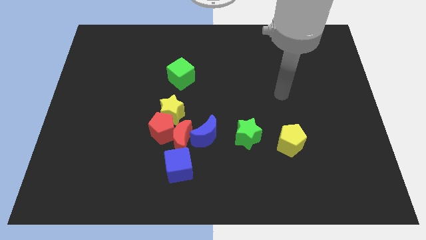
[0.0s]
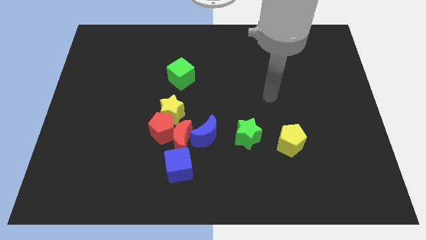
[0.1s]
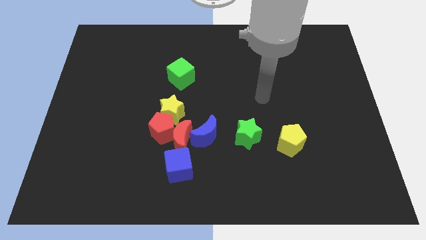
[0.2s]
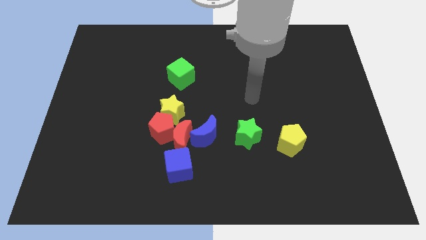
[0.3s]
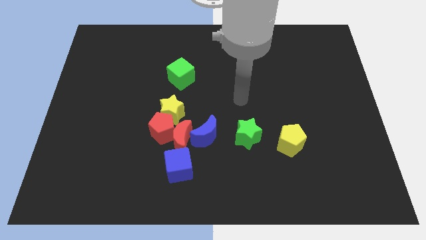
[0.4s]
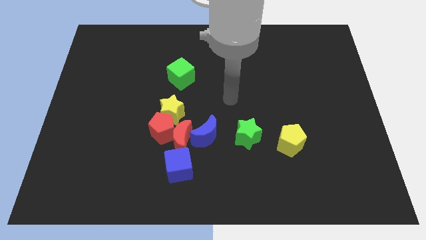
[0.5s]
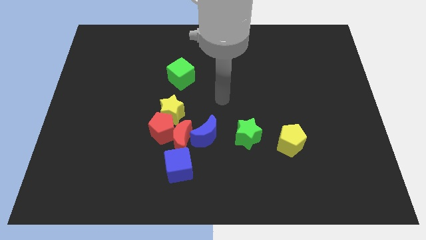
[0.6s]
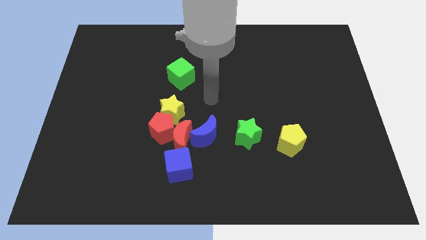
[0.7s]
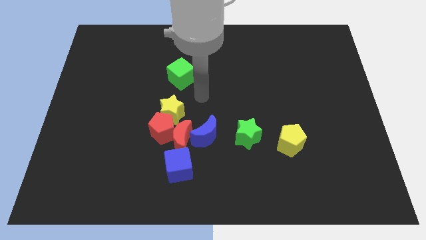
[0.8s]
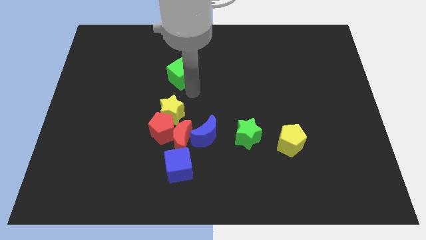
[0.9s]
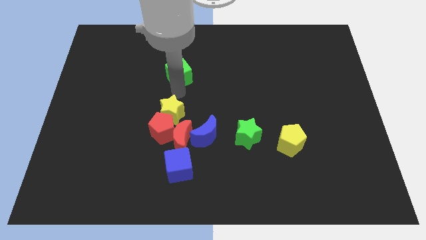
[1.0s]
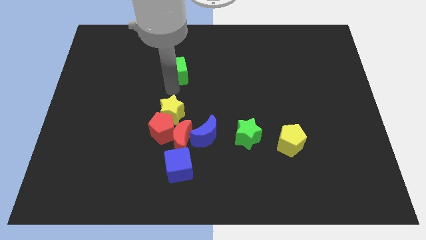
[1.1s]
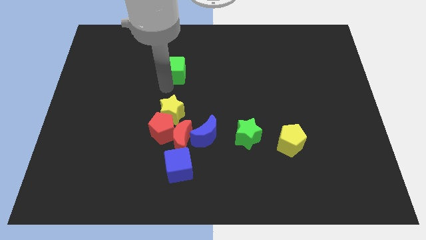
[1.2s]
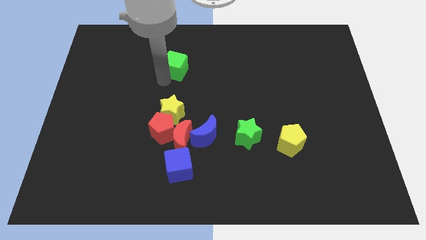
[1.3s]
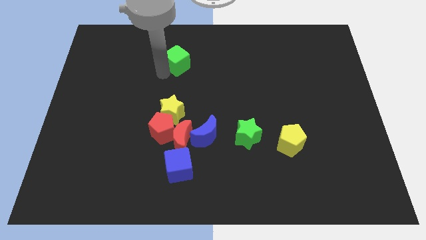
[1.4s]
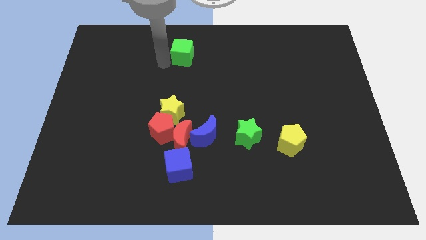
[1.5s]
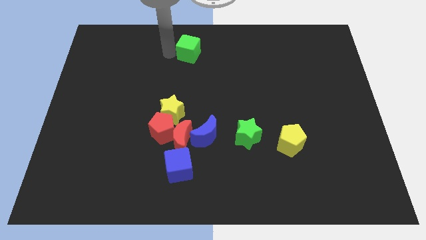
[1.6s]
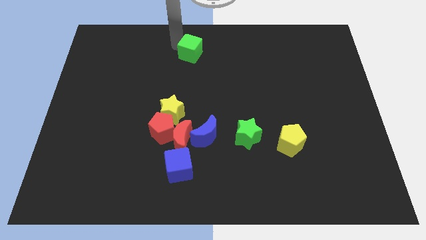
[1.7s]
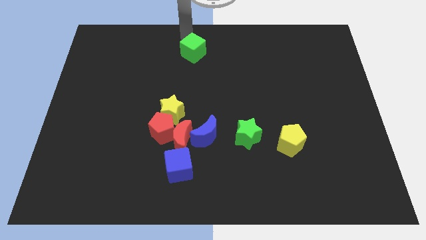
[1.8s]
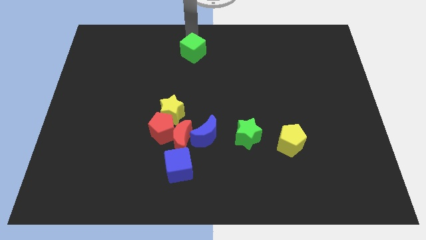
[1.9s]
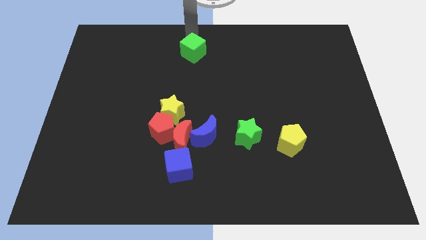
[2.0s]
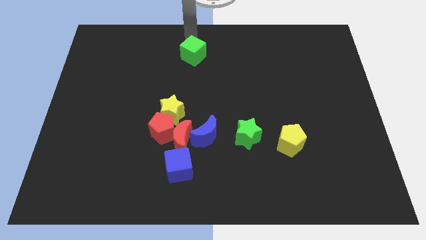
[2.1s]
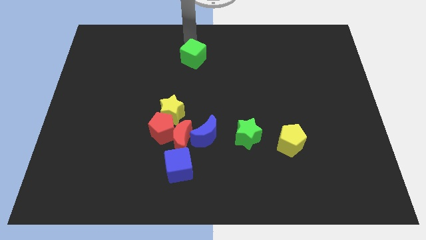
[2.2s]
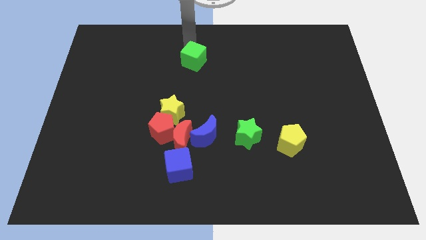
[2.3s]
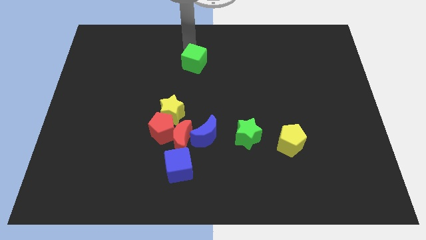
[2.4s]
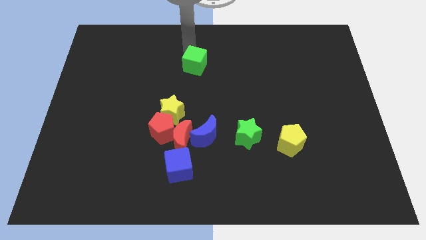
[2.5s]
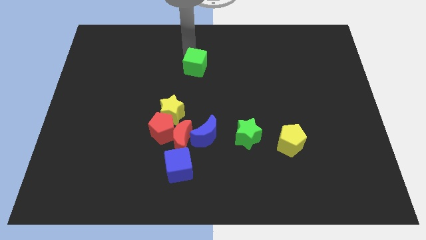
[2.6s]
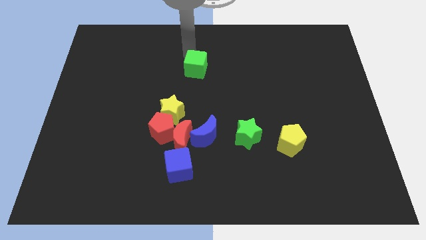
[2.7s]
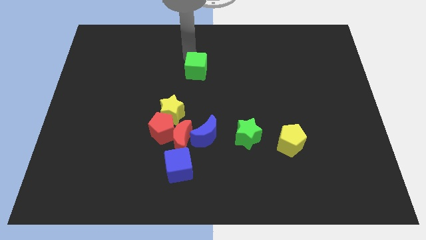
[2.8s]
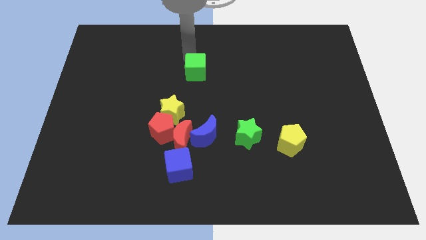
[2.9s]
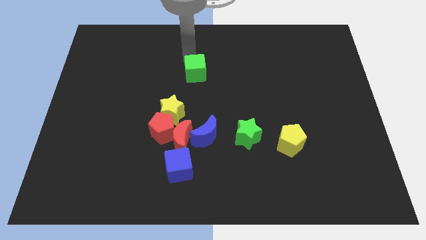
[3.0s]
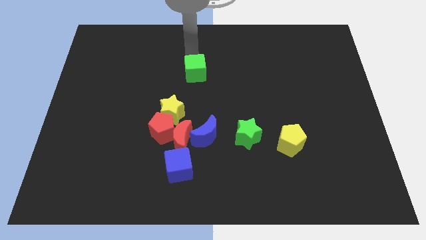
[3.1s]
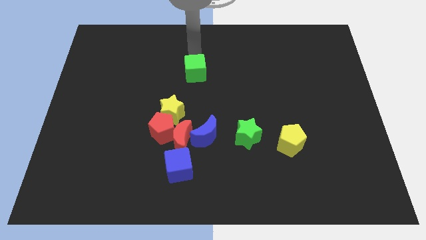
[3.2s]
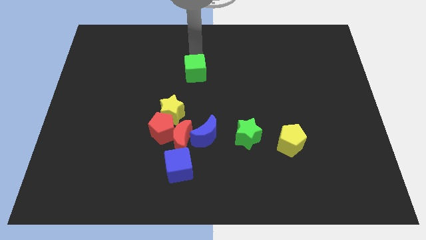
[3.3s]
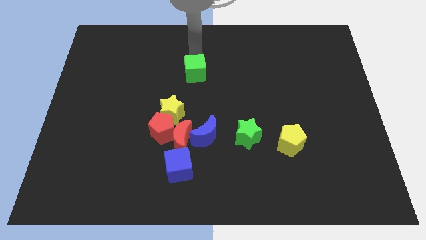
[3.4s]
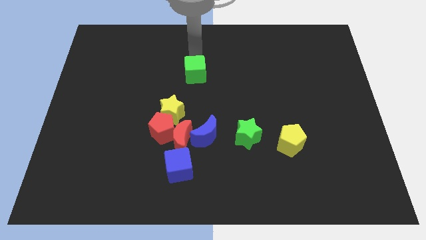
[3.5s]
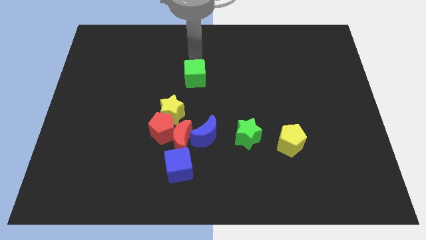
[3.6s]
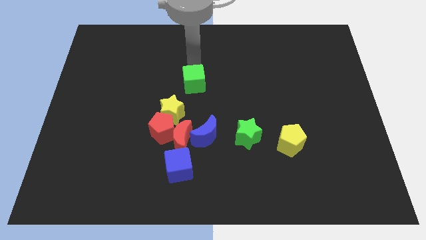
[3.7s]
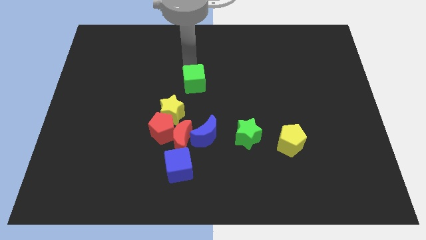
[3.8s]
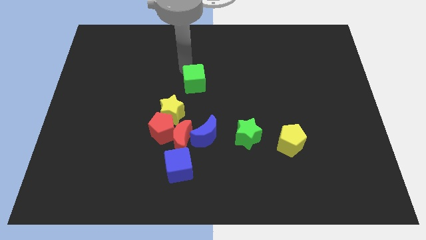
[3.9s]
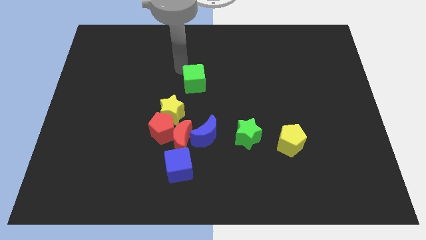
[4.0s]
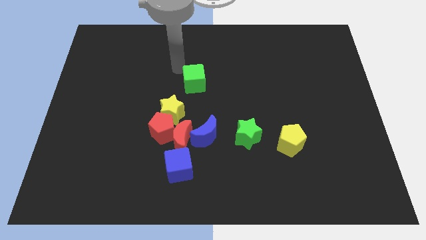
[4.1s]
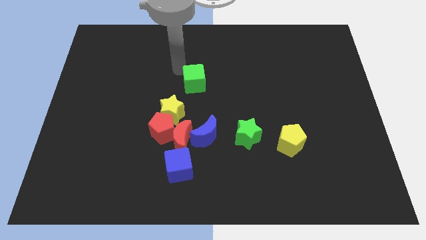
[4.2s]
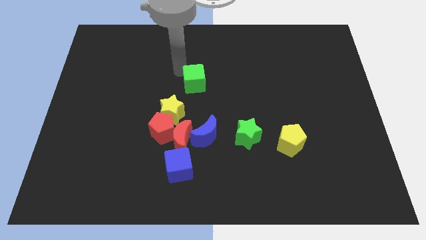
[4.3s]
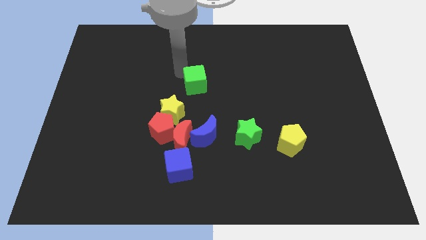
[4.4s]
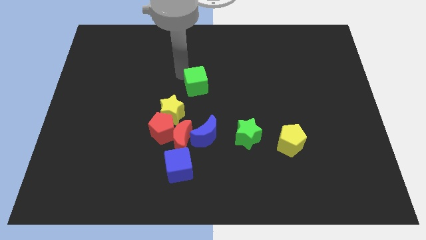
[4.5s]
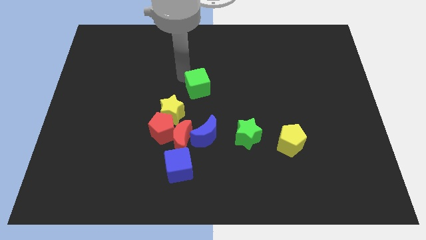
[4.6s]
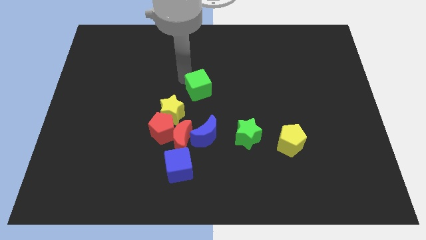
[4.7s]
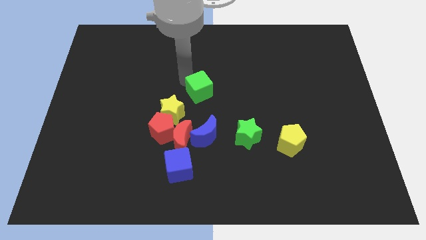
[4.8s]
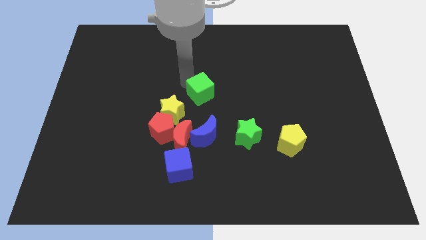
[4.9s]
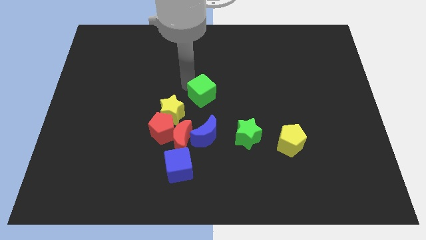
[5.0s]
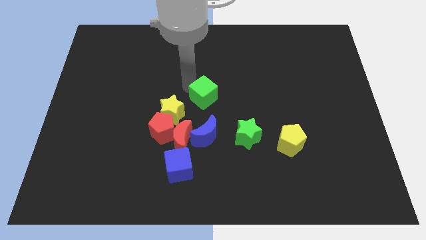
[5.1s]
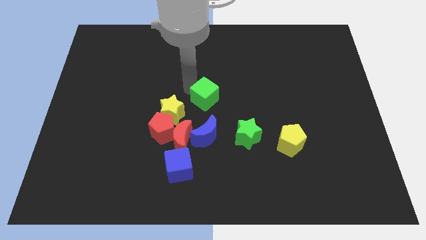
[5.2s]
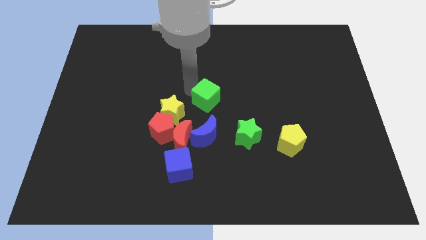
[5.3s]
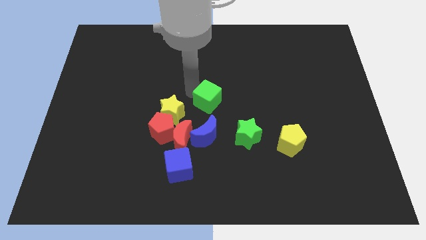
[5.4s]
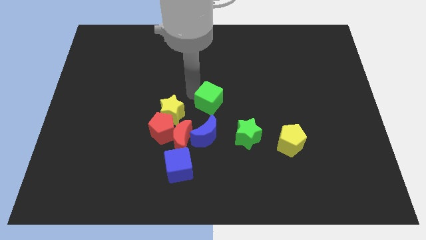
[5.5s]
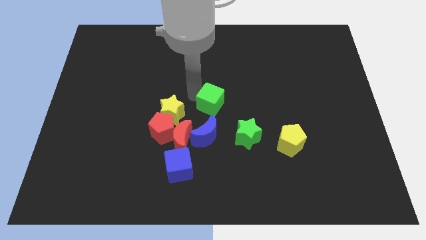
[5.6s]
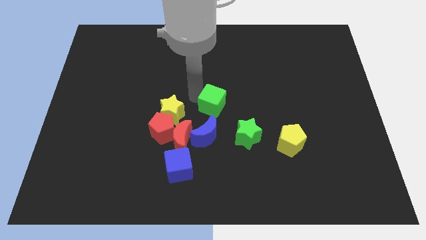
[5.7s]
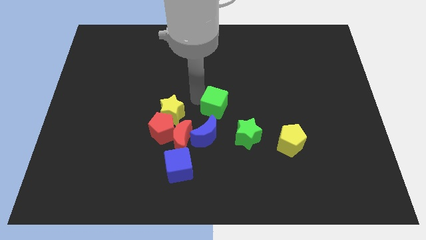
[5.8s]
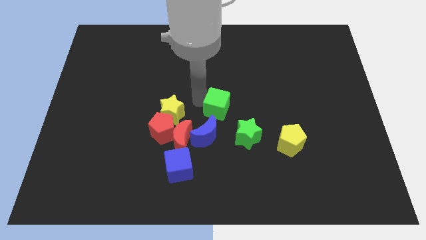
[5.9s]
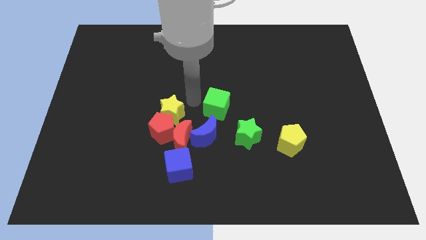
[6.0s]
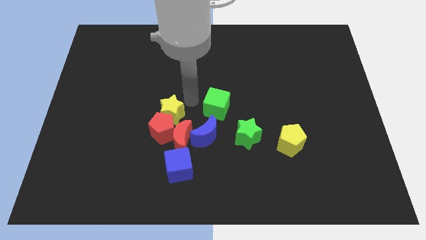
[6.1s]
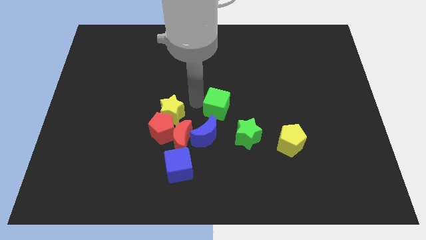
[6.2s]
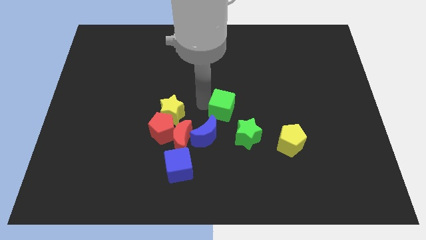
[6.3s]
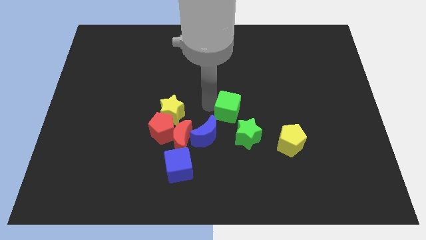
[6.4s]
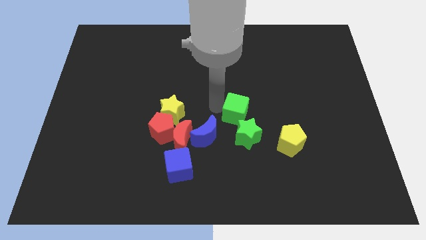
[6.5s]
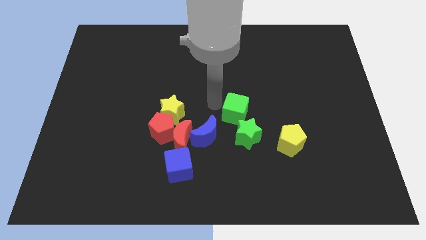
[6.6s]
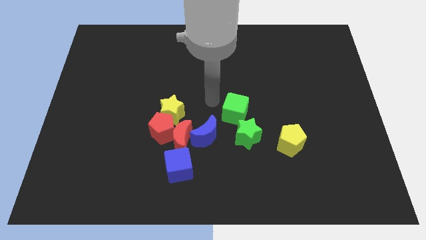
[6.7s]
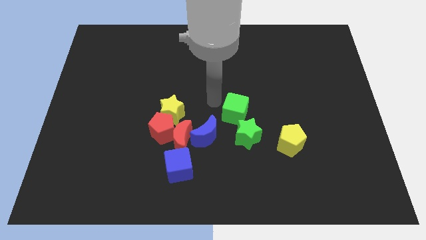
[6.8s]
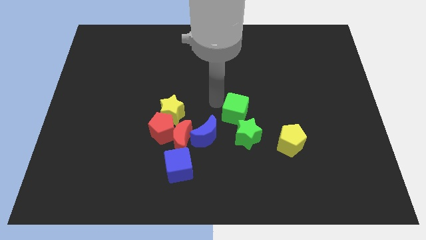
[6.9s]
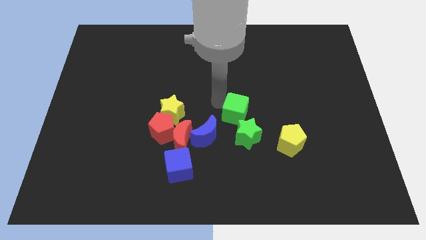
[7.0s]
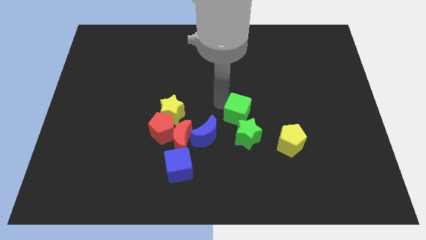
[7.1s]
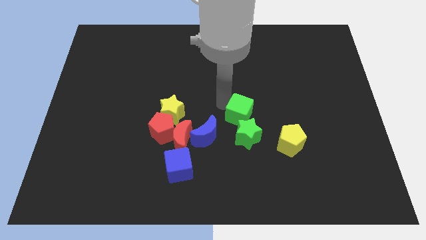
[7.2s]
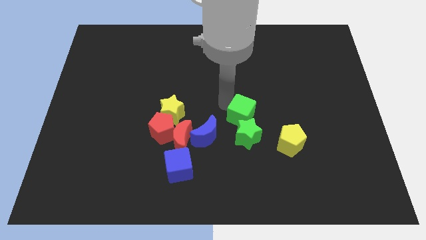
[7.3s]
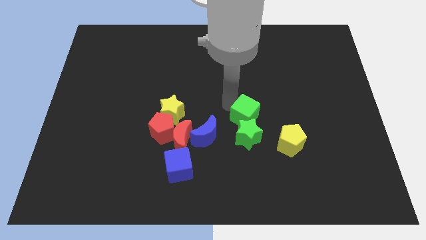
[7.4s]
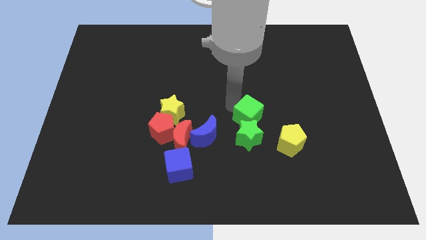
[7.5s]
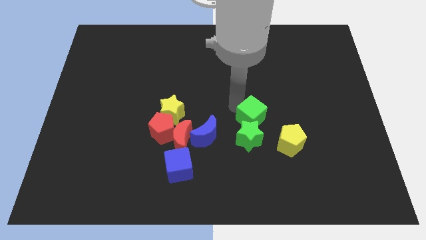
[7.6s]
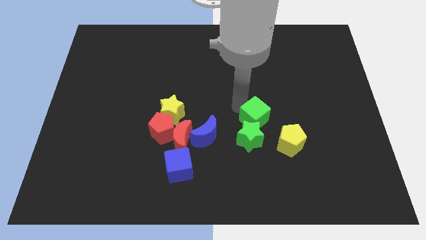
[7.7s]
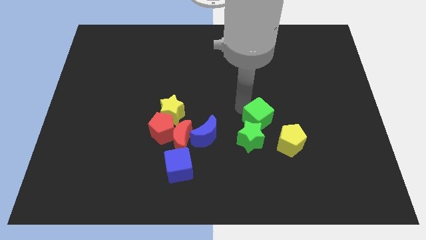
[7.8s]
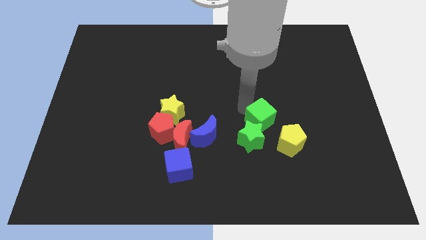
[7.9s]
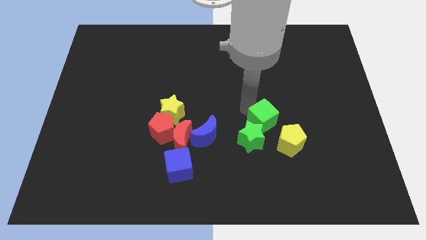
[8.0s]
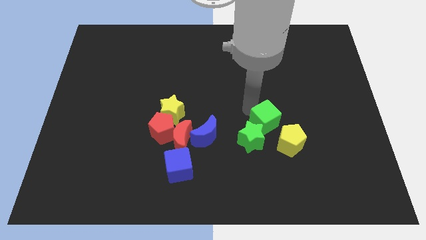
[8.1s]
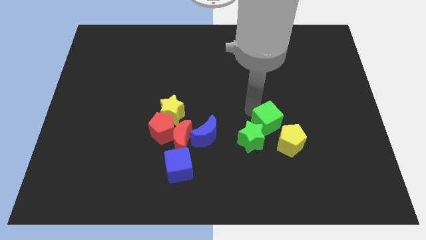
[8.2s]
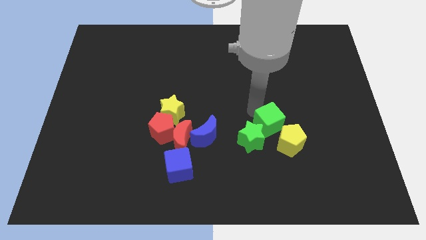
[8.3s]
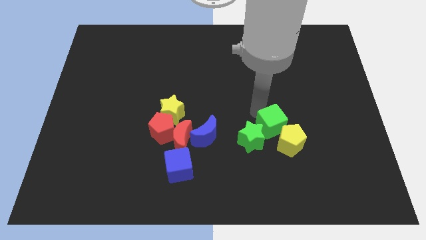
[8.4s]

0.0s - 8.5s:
put the green cube towards the yellow pentagon
